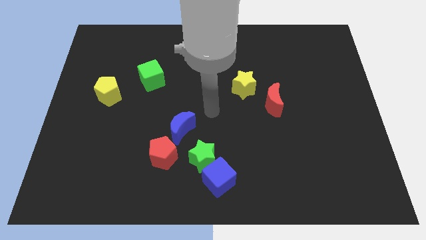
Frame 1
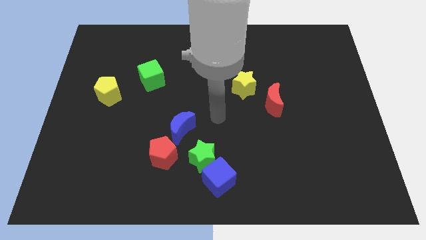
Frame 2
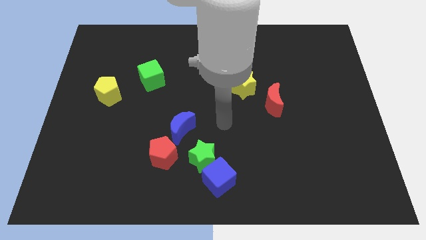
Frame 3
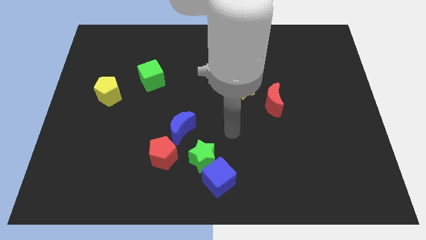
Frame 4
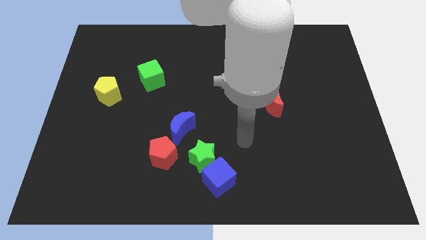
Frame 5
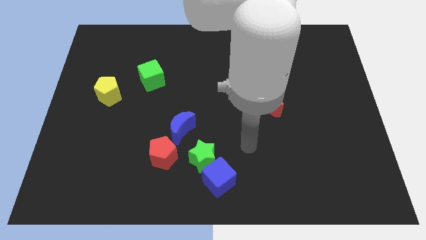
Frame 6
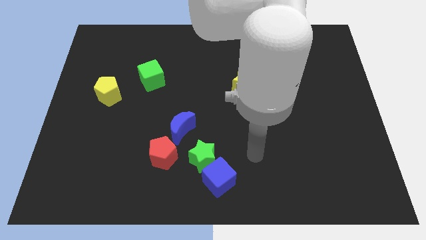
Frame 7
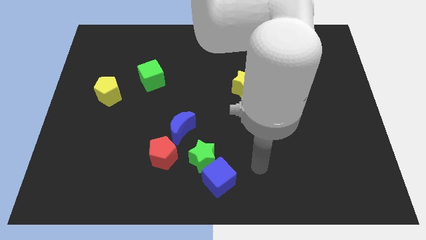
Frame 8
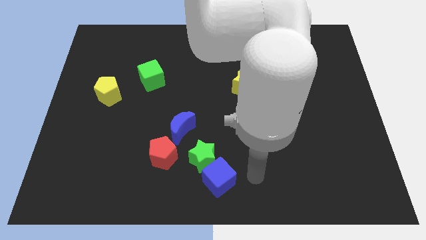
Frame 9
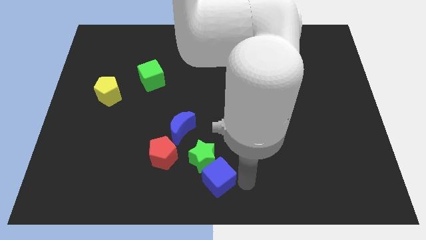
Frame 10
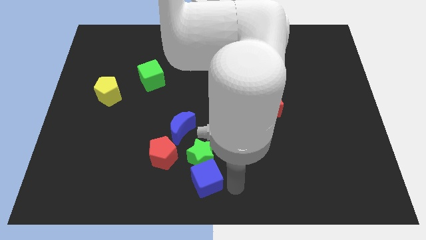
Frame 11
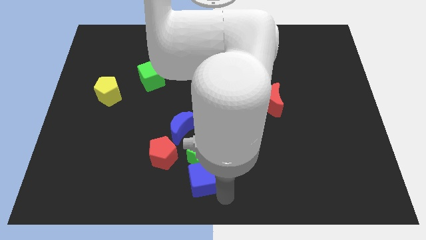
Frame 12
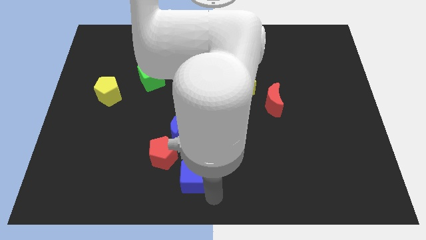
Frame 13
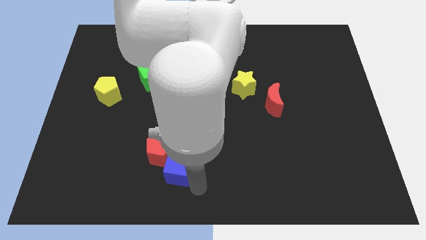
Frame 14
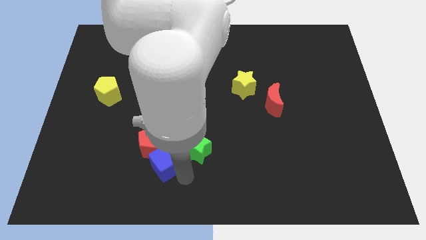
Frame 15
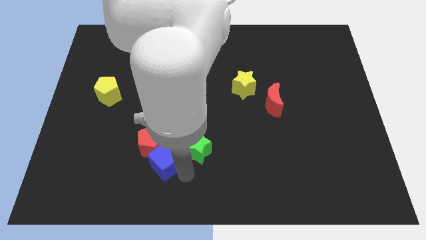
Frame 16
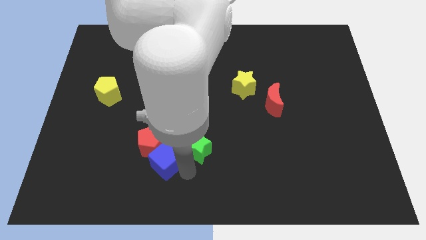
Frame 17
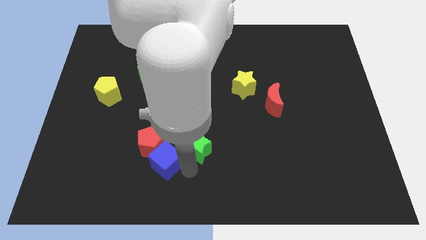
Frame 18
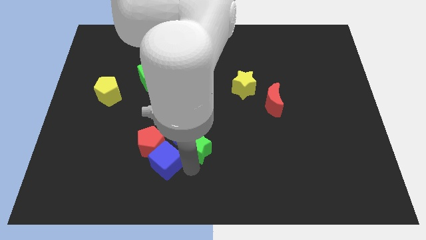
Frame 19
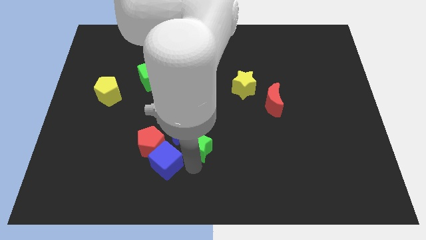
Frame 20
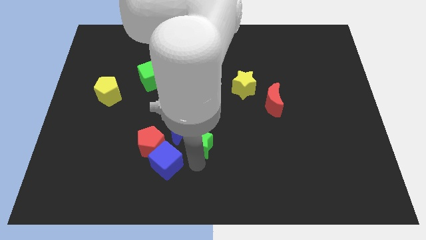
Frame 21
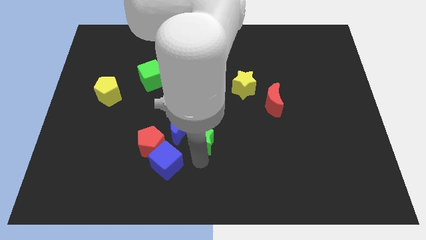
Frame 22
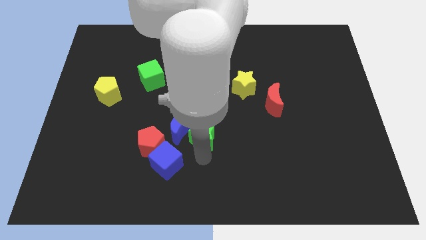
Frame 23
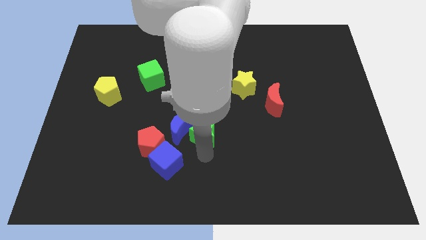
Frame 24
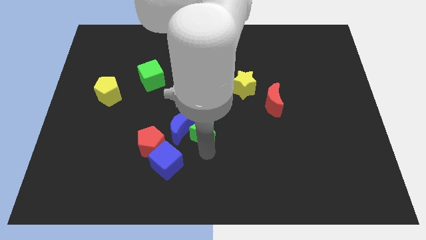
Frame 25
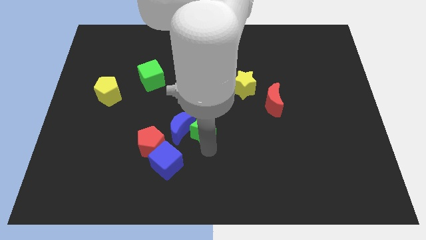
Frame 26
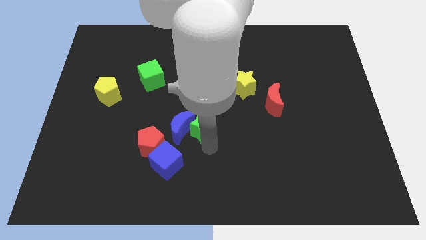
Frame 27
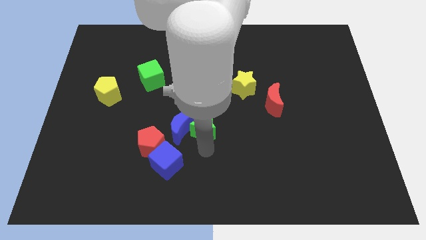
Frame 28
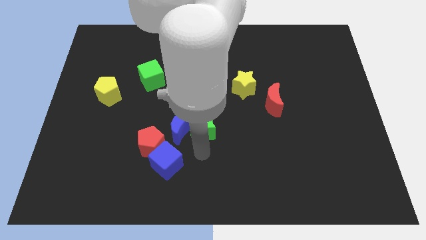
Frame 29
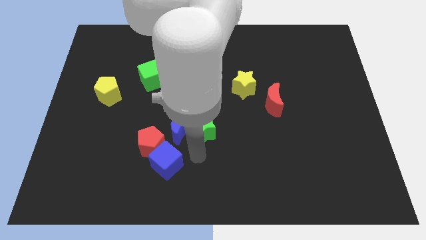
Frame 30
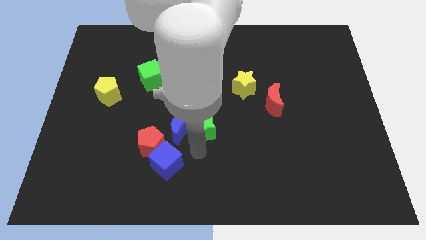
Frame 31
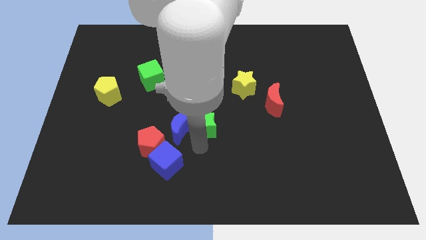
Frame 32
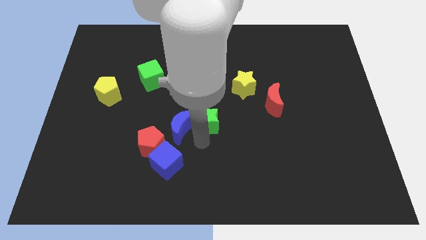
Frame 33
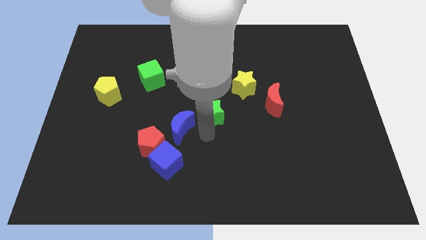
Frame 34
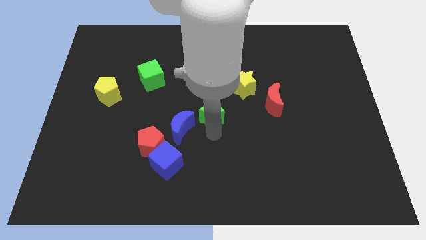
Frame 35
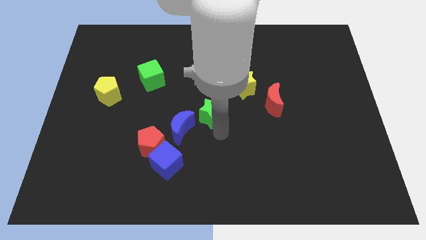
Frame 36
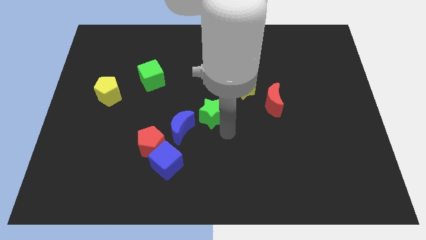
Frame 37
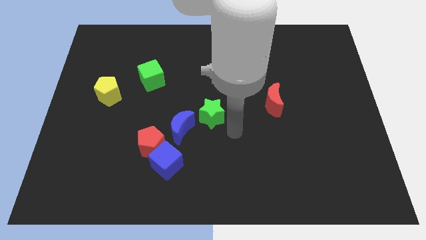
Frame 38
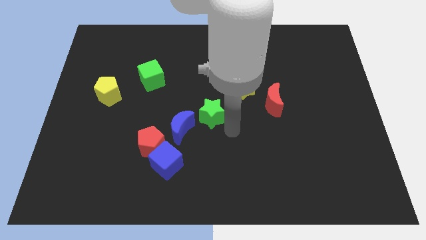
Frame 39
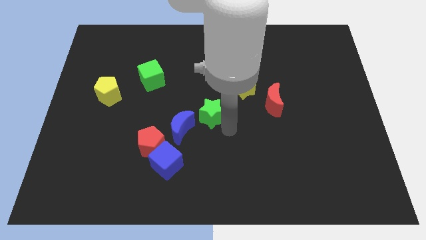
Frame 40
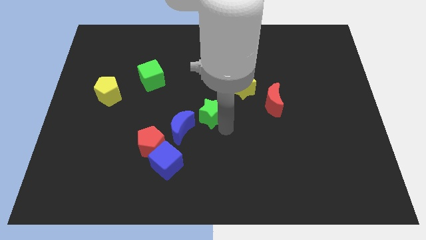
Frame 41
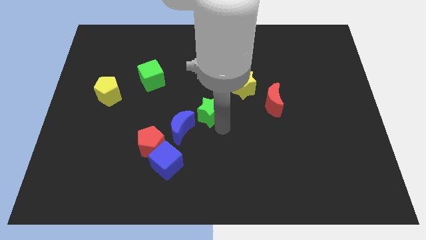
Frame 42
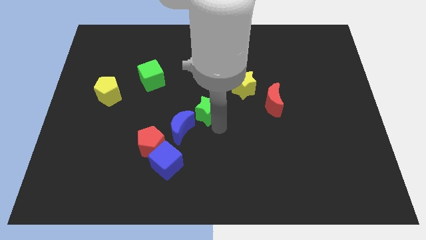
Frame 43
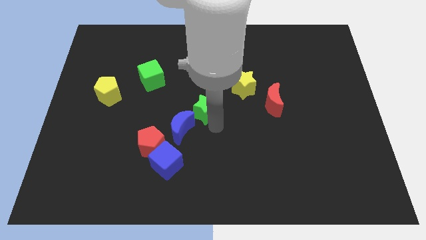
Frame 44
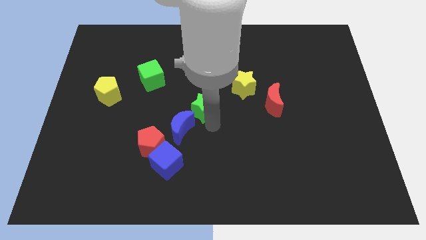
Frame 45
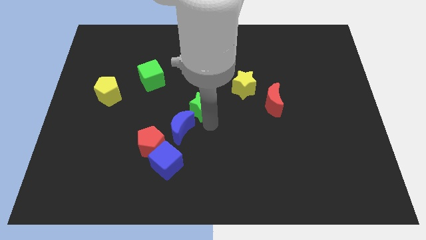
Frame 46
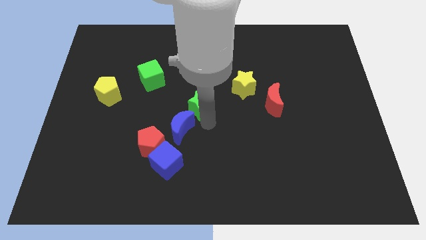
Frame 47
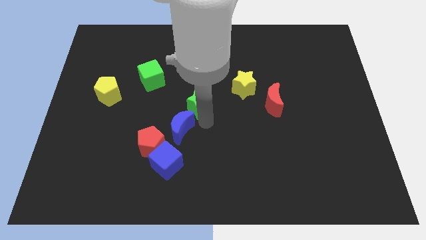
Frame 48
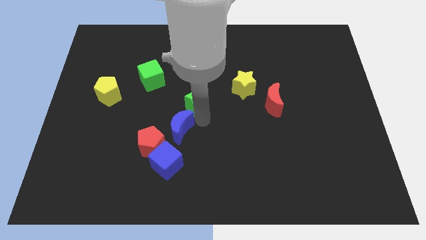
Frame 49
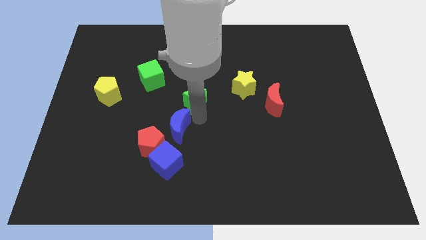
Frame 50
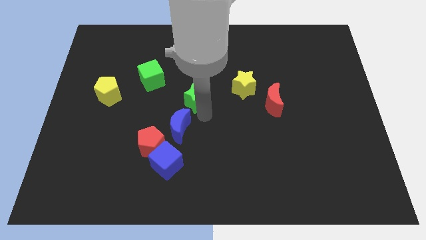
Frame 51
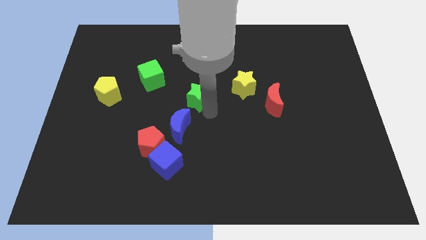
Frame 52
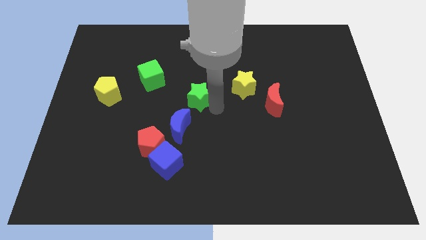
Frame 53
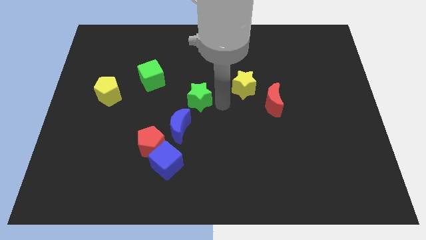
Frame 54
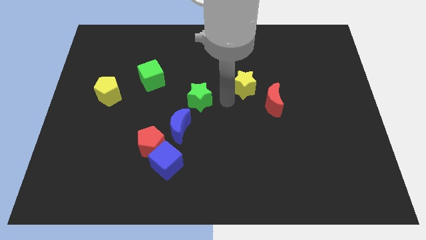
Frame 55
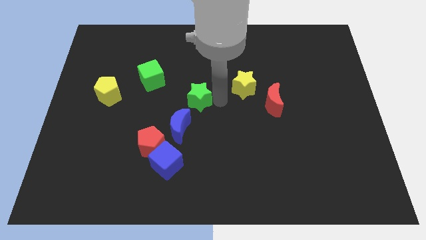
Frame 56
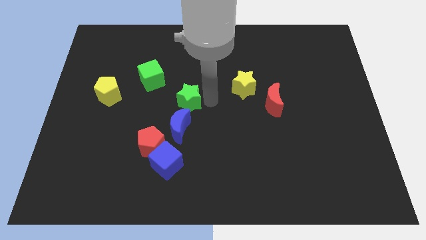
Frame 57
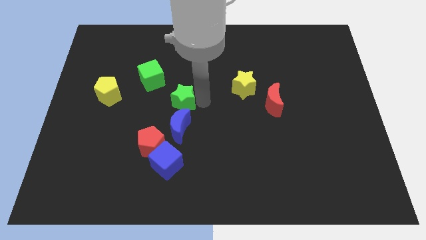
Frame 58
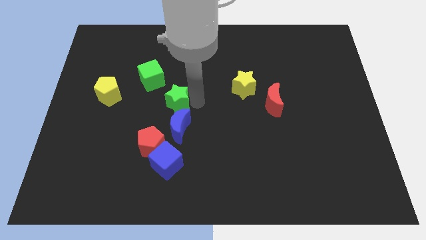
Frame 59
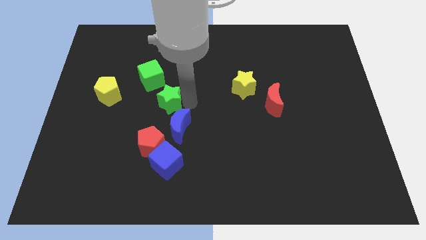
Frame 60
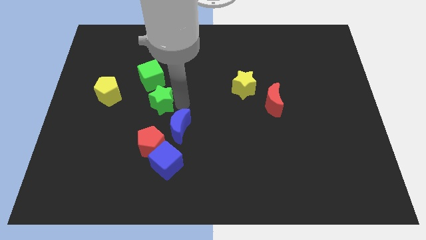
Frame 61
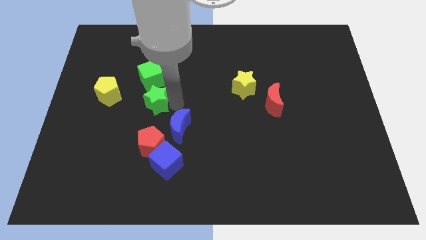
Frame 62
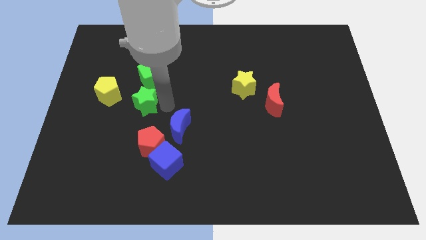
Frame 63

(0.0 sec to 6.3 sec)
move the green star diagonally up and left

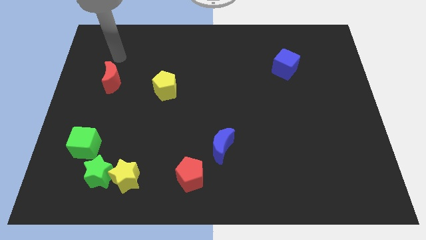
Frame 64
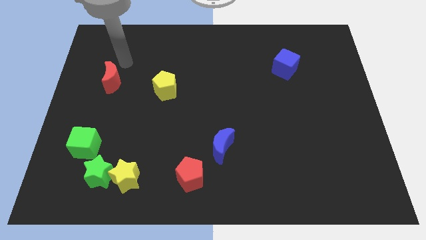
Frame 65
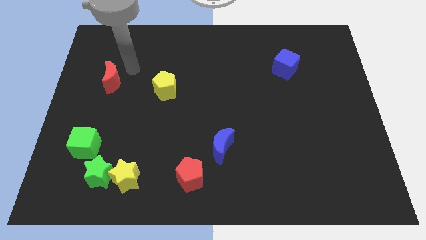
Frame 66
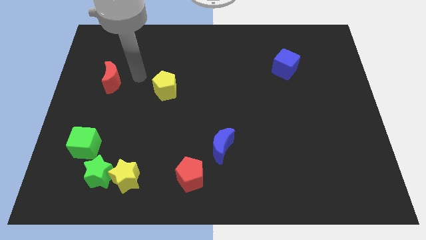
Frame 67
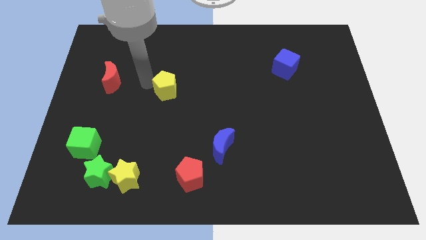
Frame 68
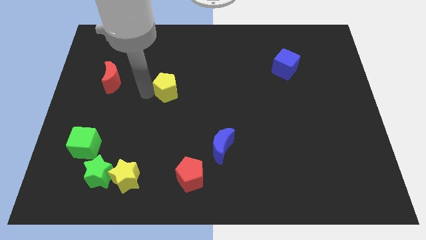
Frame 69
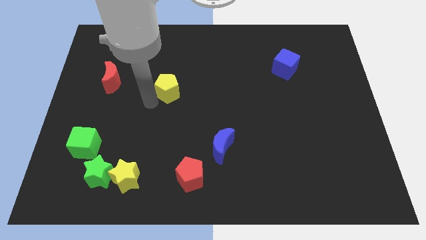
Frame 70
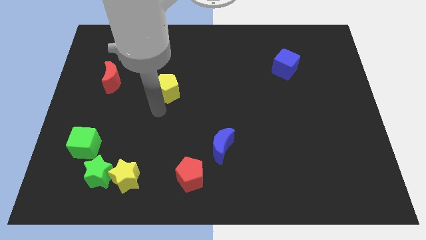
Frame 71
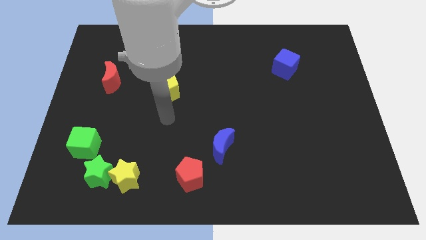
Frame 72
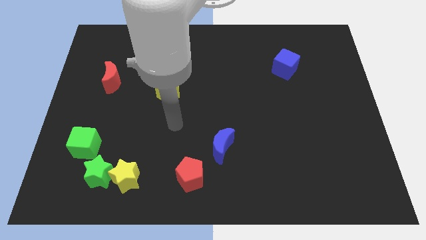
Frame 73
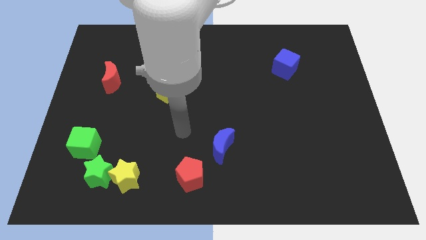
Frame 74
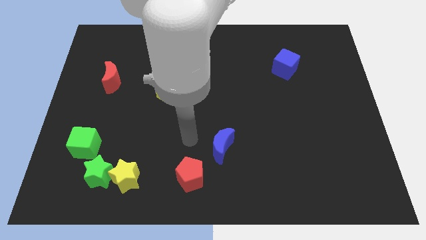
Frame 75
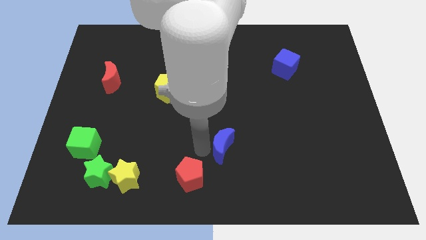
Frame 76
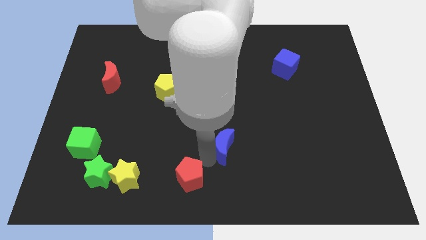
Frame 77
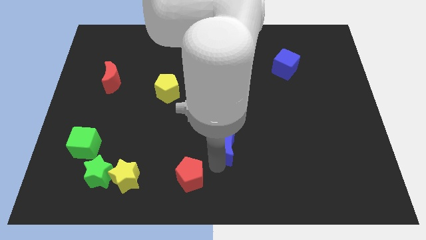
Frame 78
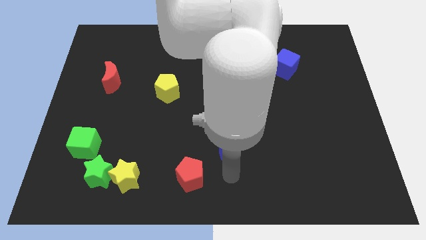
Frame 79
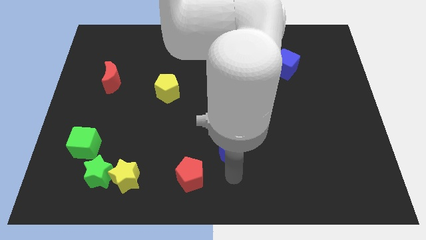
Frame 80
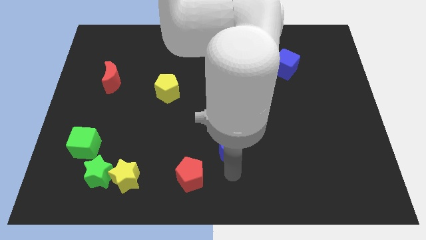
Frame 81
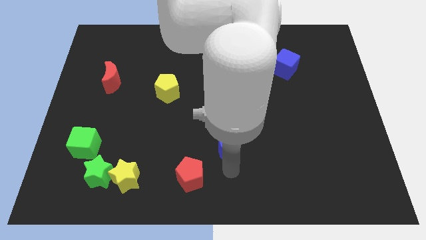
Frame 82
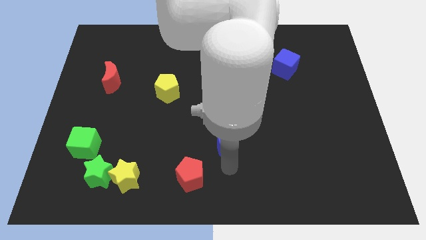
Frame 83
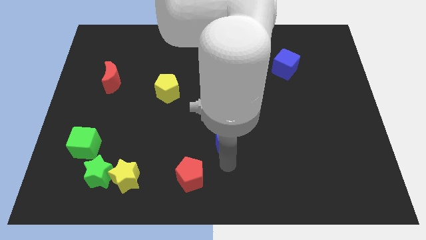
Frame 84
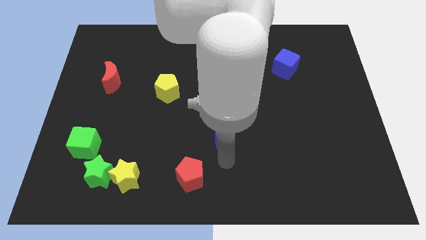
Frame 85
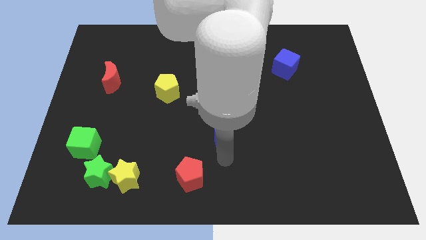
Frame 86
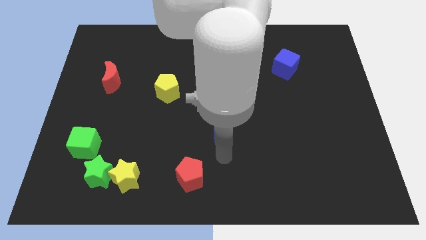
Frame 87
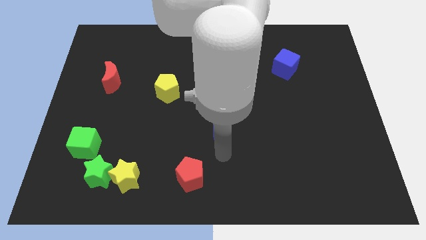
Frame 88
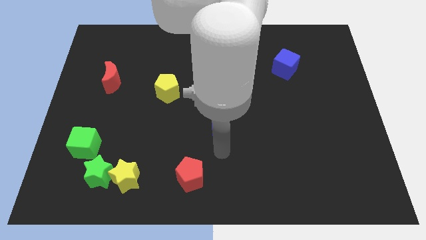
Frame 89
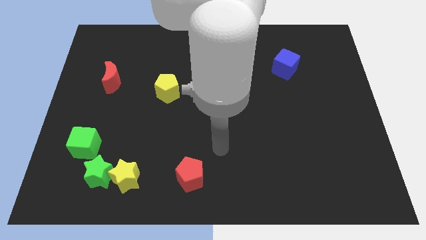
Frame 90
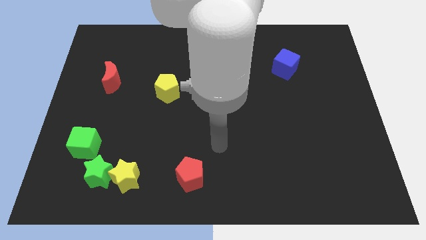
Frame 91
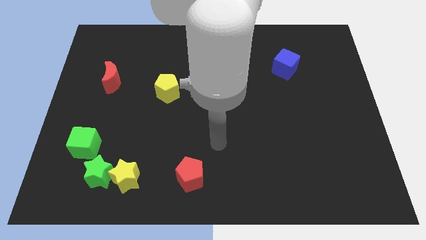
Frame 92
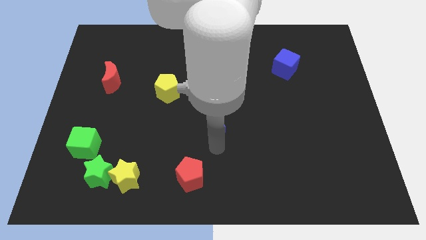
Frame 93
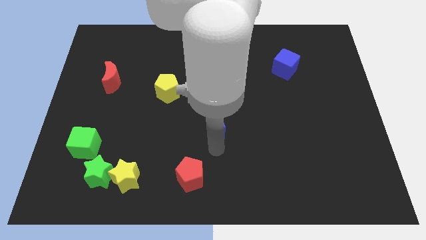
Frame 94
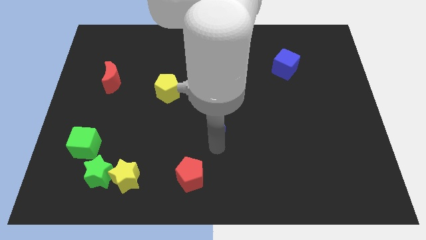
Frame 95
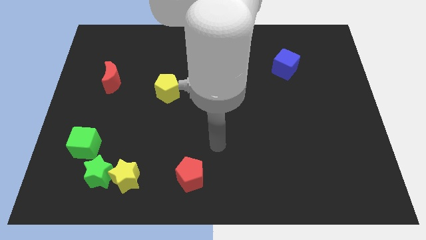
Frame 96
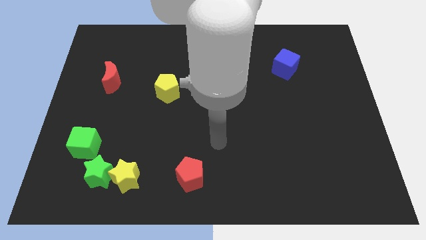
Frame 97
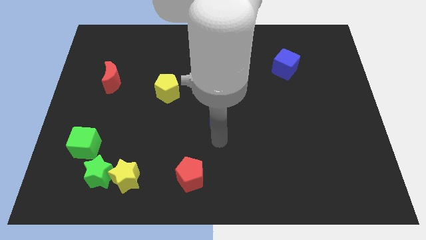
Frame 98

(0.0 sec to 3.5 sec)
slightly push the blue moon upwards
